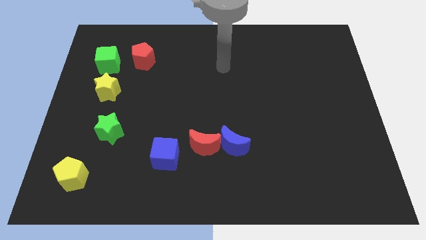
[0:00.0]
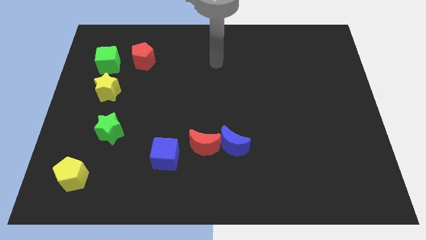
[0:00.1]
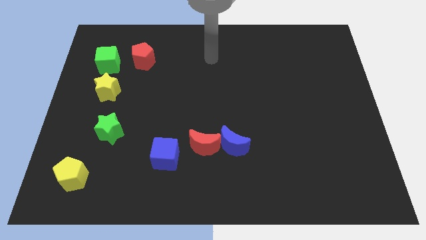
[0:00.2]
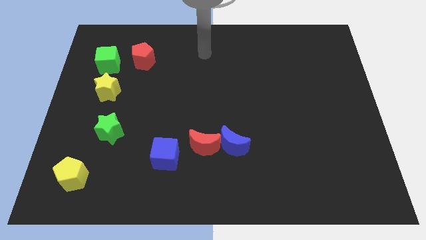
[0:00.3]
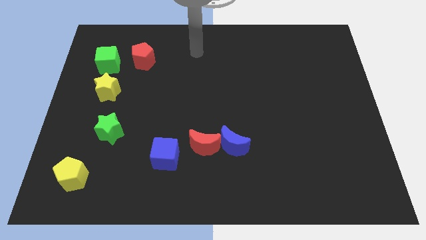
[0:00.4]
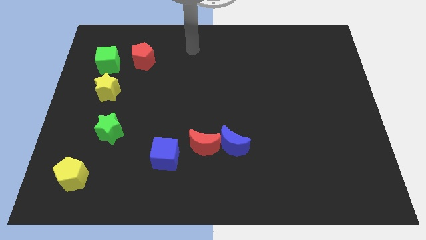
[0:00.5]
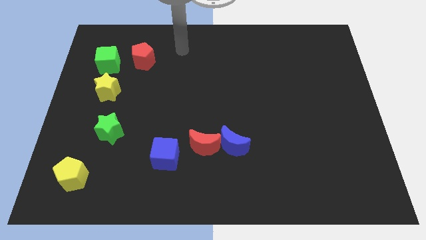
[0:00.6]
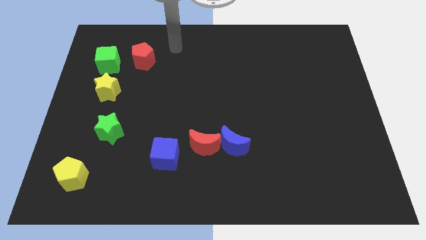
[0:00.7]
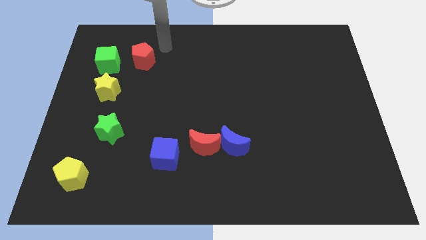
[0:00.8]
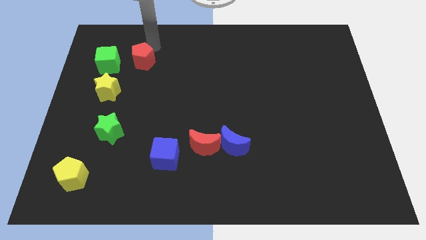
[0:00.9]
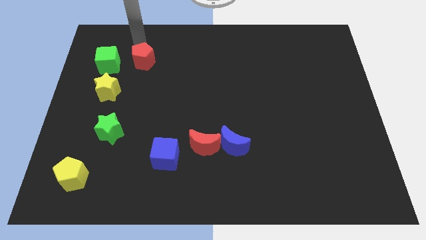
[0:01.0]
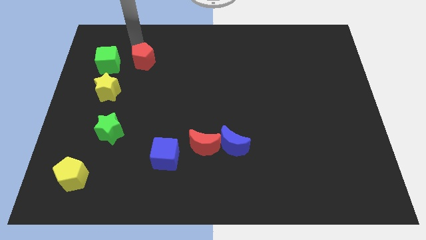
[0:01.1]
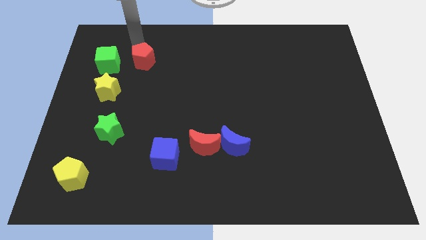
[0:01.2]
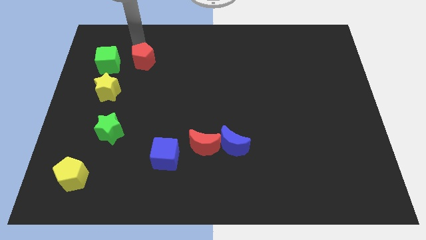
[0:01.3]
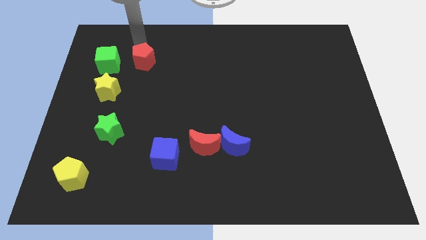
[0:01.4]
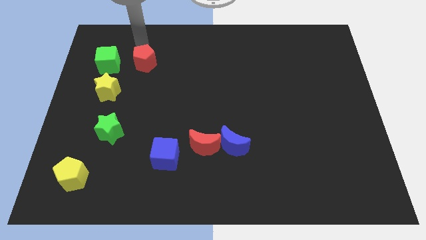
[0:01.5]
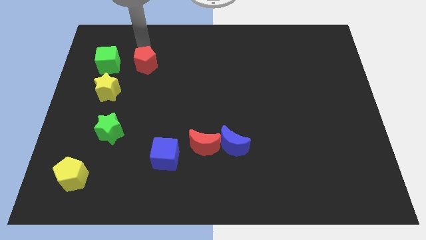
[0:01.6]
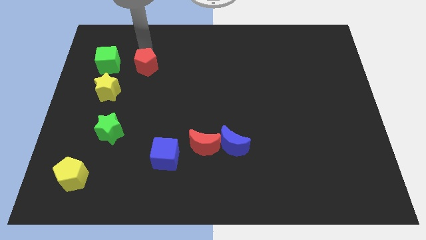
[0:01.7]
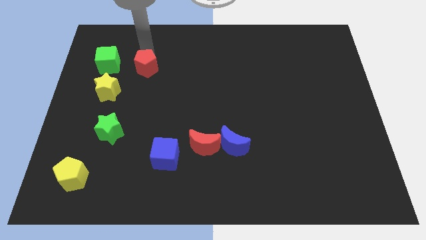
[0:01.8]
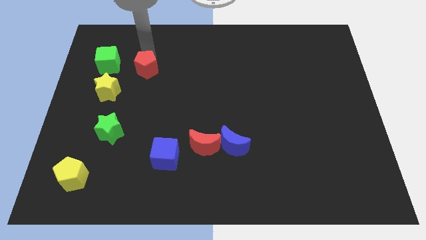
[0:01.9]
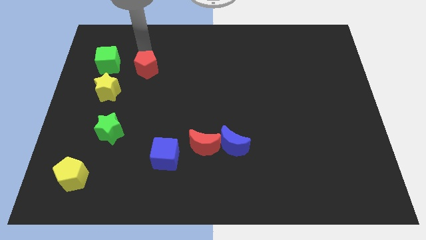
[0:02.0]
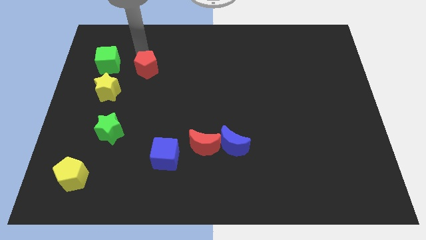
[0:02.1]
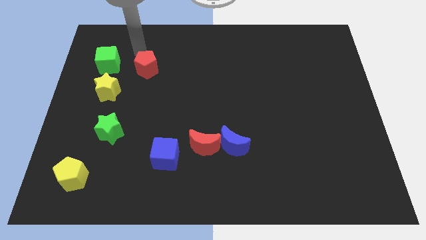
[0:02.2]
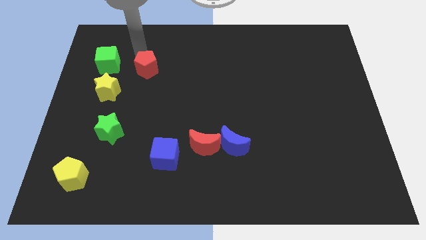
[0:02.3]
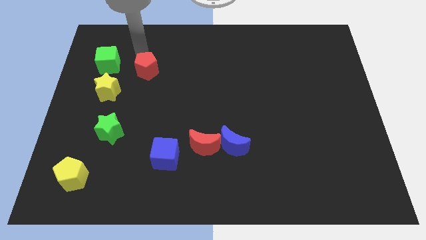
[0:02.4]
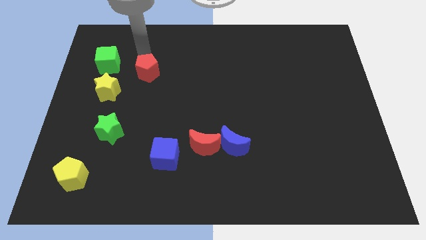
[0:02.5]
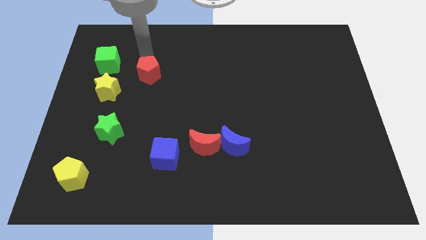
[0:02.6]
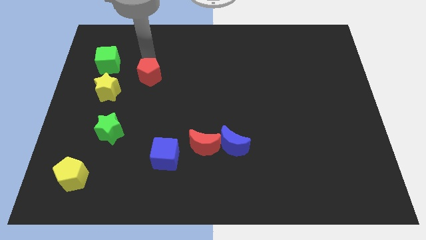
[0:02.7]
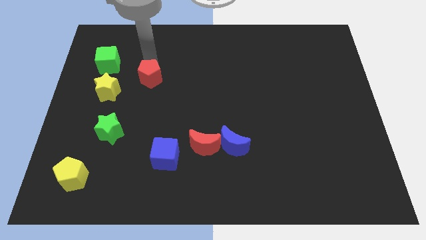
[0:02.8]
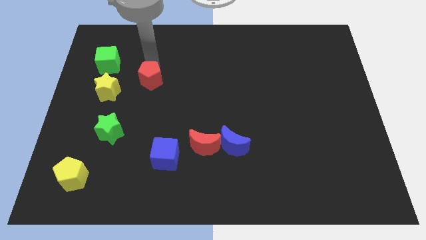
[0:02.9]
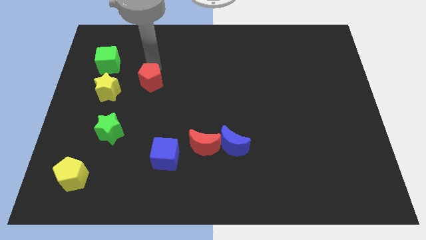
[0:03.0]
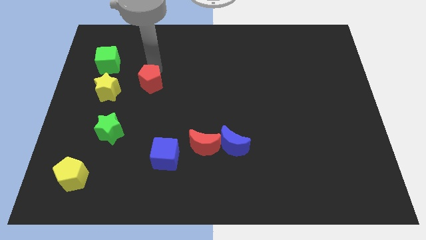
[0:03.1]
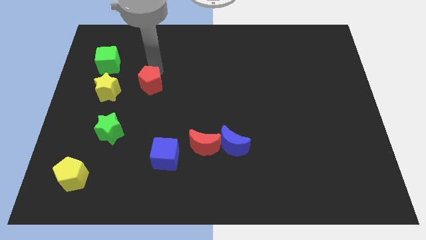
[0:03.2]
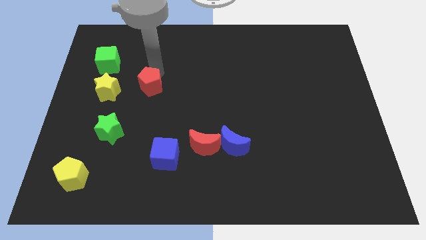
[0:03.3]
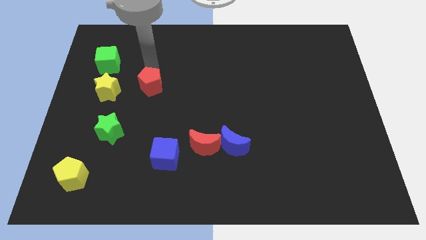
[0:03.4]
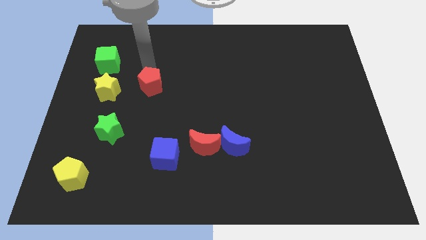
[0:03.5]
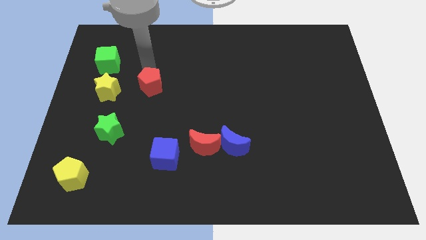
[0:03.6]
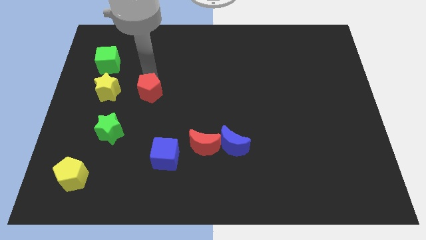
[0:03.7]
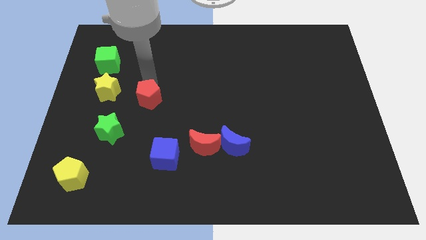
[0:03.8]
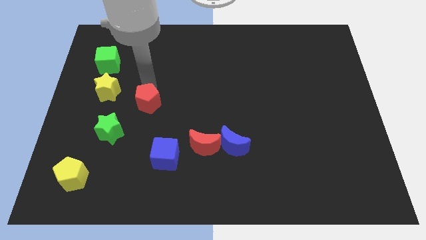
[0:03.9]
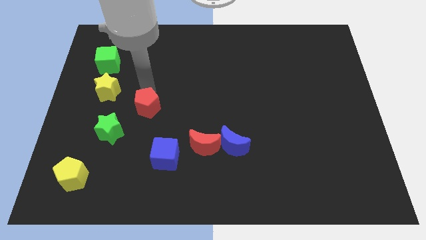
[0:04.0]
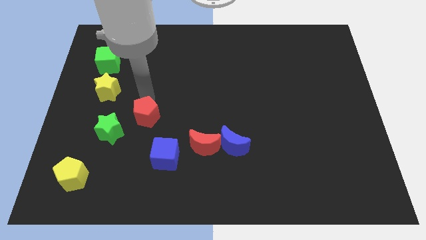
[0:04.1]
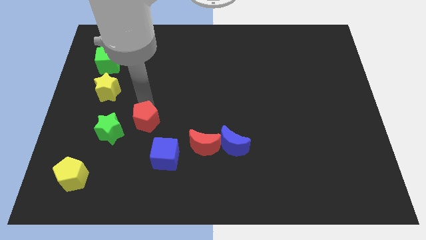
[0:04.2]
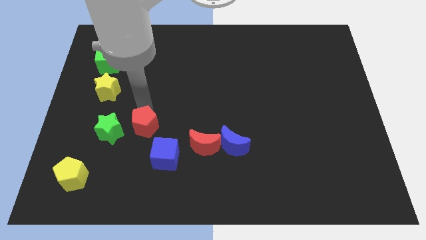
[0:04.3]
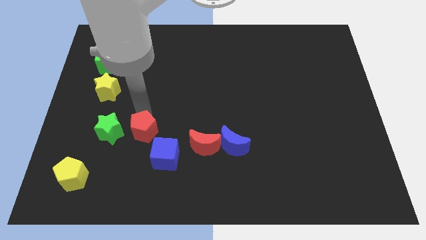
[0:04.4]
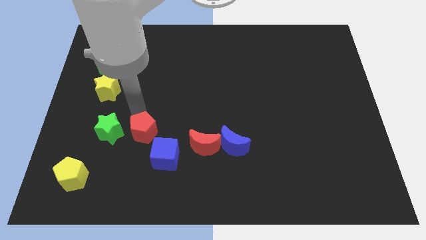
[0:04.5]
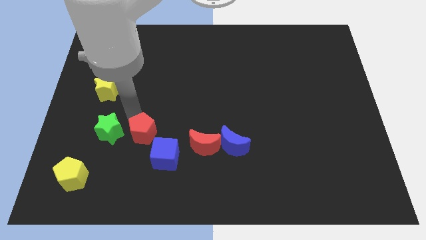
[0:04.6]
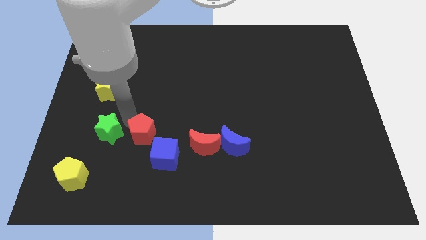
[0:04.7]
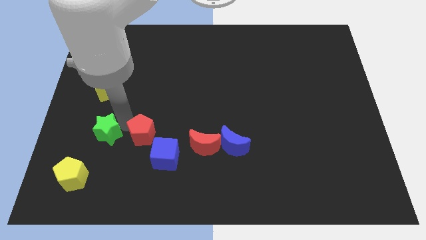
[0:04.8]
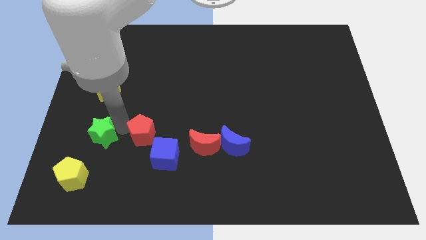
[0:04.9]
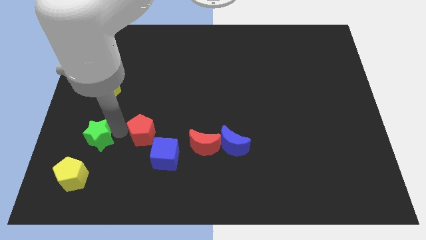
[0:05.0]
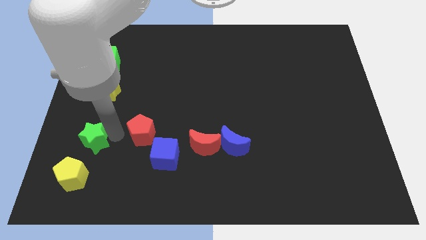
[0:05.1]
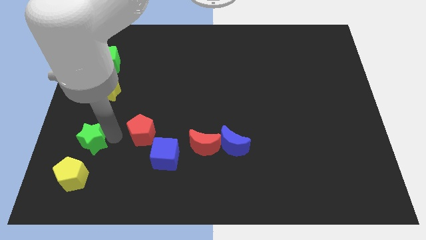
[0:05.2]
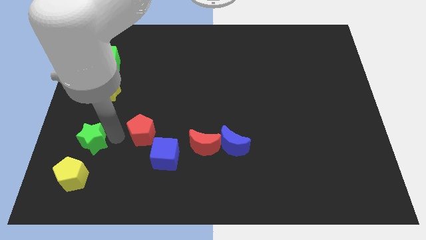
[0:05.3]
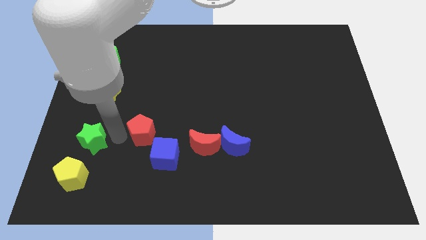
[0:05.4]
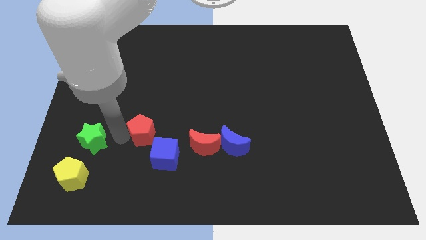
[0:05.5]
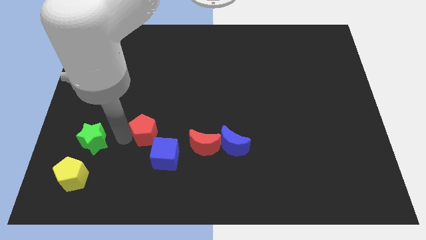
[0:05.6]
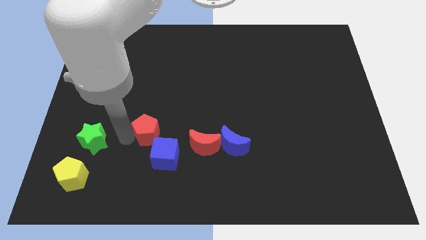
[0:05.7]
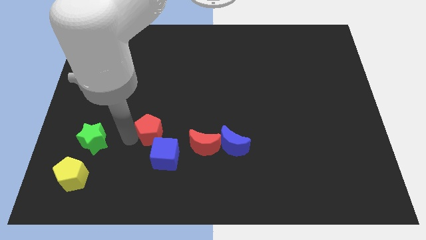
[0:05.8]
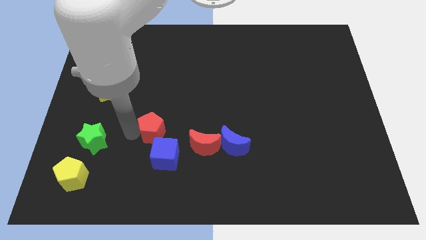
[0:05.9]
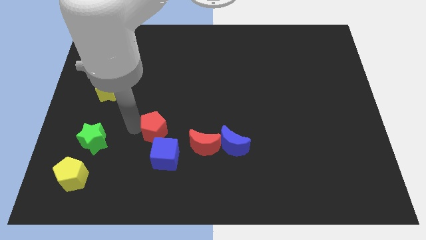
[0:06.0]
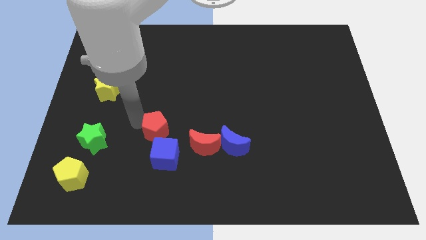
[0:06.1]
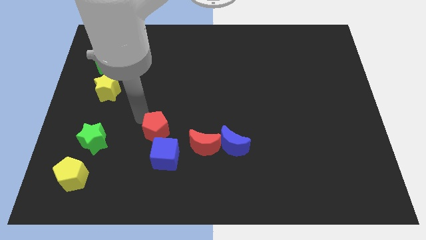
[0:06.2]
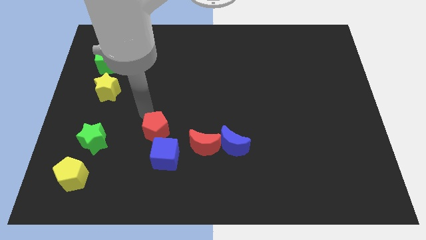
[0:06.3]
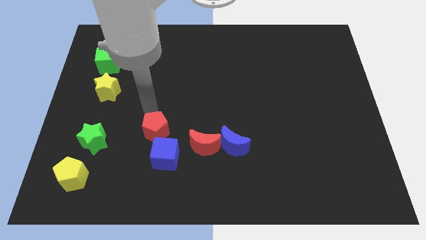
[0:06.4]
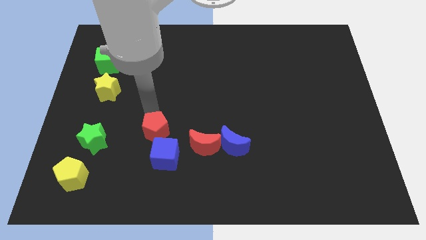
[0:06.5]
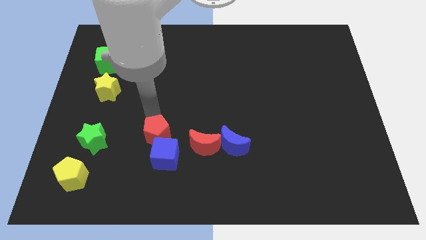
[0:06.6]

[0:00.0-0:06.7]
slide the red pentagon close to the blue cube

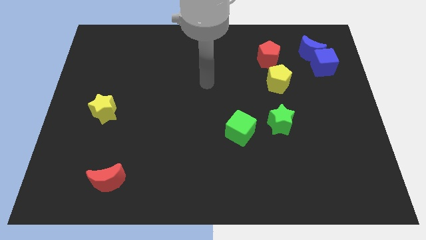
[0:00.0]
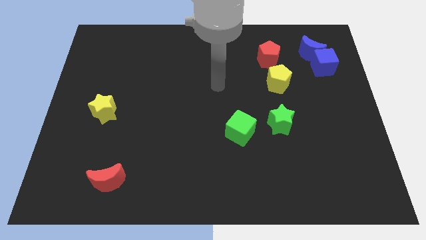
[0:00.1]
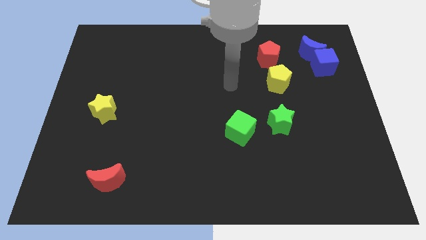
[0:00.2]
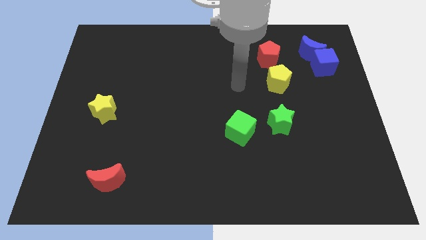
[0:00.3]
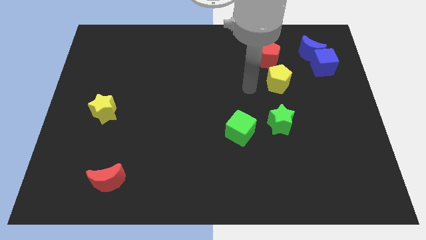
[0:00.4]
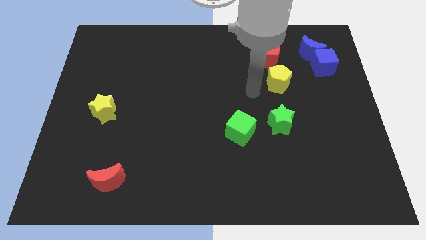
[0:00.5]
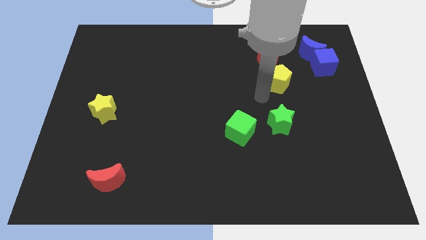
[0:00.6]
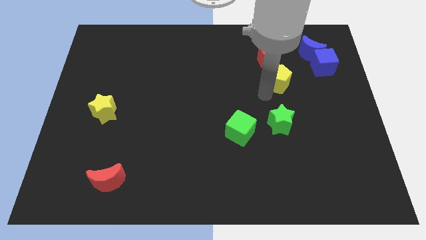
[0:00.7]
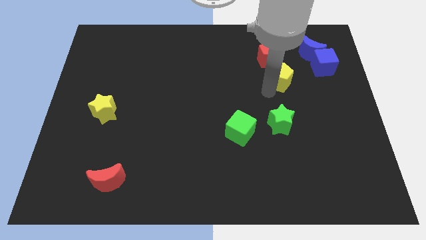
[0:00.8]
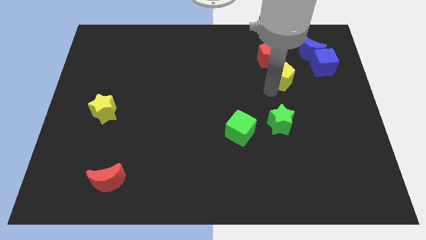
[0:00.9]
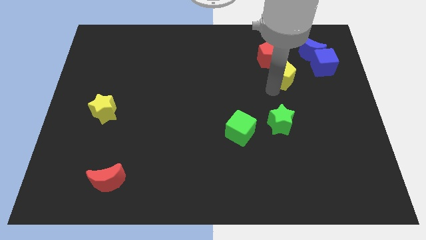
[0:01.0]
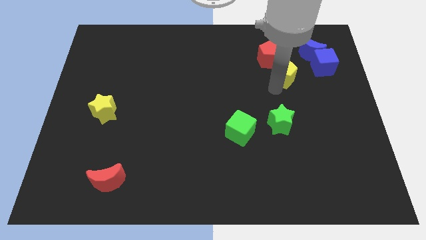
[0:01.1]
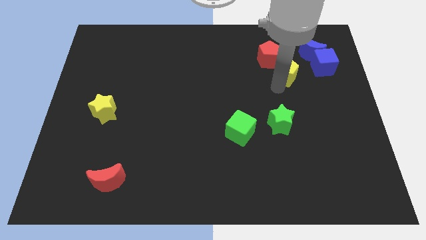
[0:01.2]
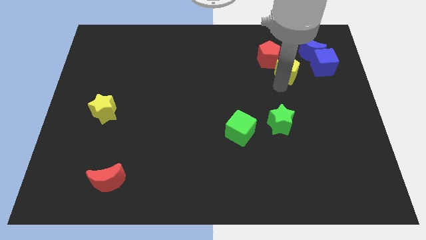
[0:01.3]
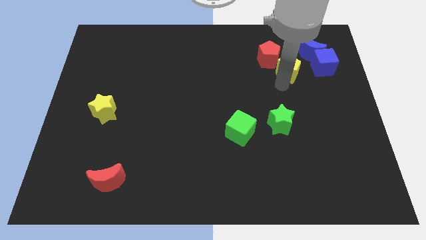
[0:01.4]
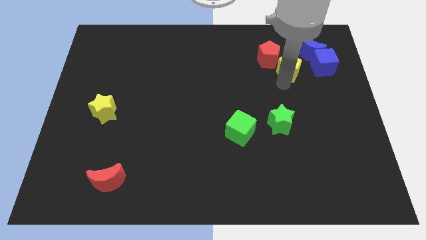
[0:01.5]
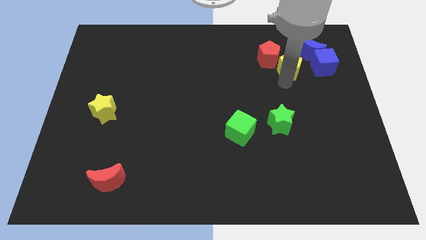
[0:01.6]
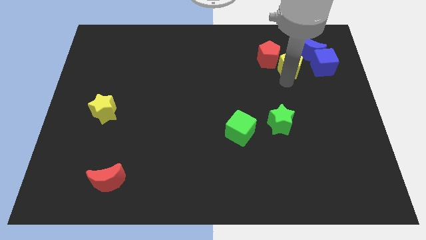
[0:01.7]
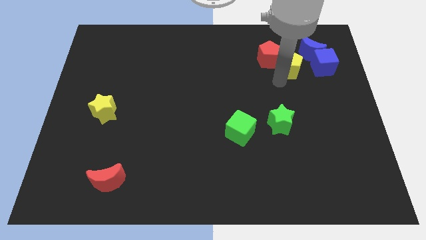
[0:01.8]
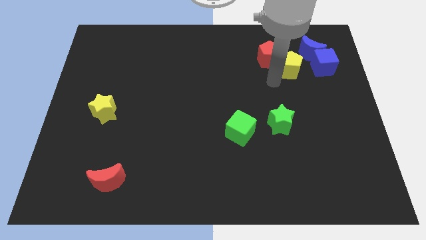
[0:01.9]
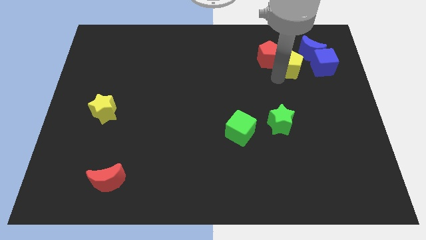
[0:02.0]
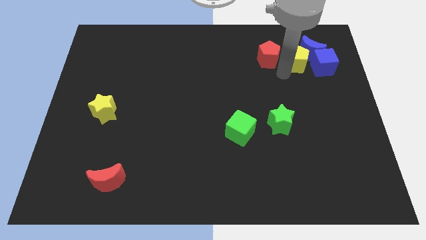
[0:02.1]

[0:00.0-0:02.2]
put the yellow pentagon next to the blue moon
